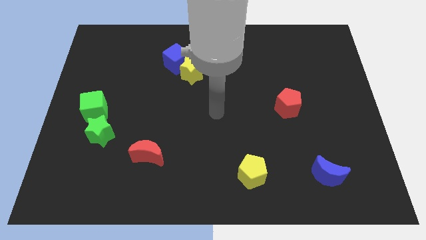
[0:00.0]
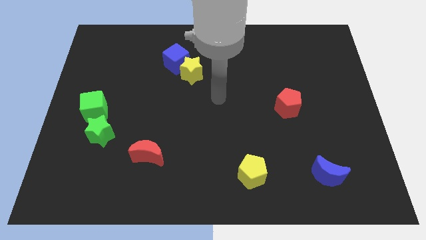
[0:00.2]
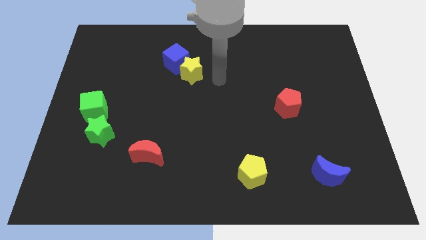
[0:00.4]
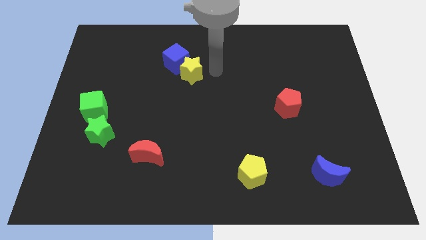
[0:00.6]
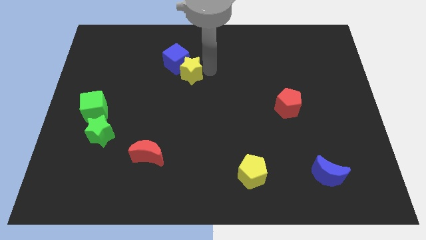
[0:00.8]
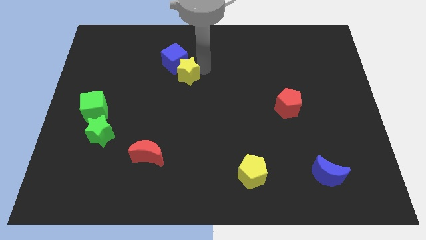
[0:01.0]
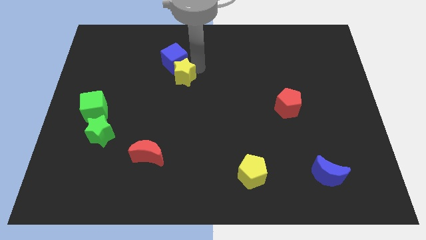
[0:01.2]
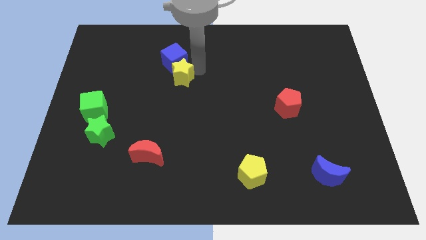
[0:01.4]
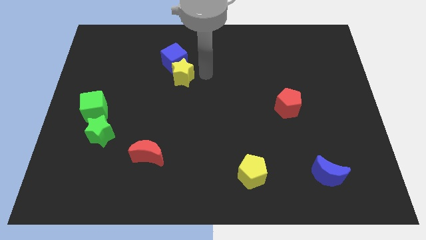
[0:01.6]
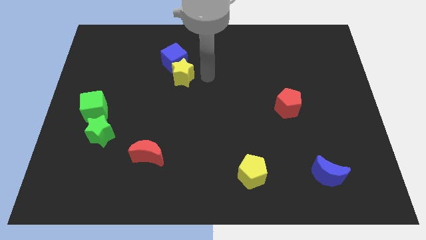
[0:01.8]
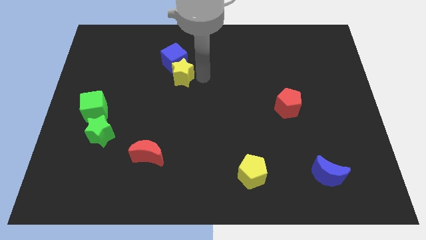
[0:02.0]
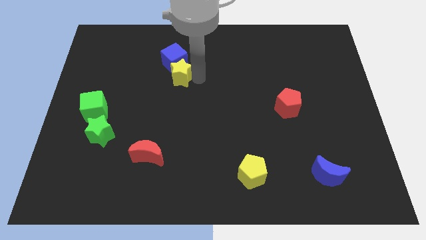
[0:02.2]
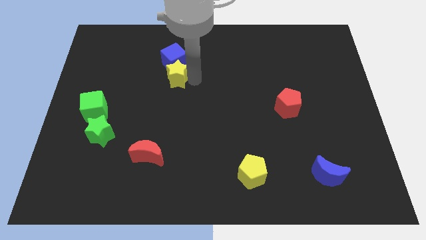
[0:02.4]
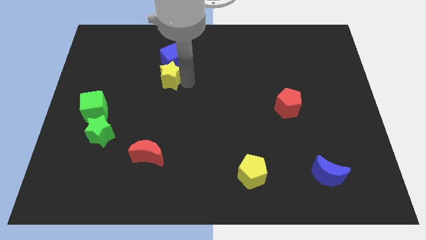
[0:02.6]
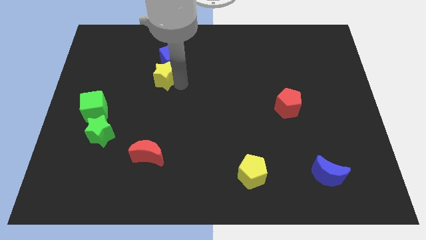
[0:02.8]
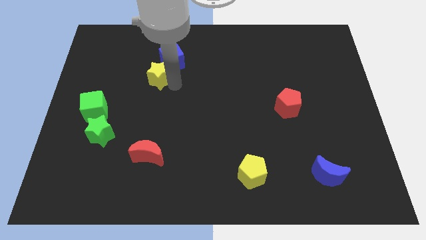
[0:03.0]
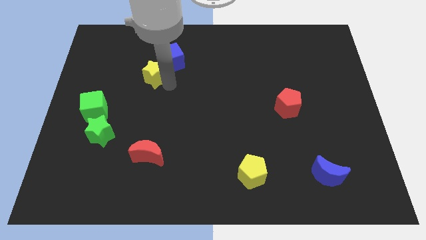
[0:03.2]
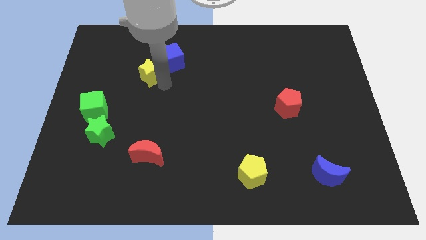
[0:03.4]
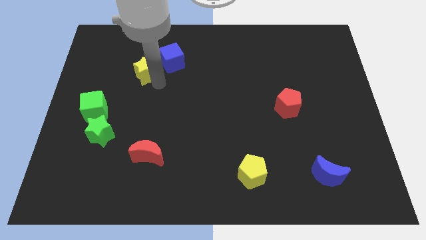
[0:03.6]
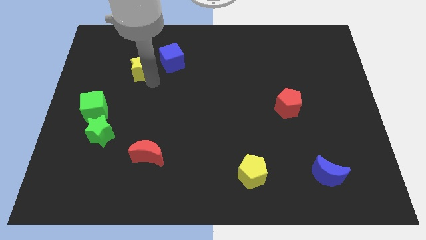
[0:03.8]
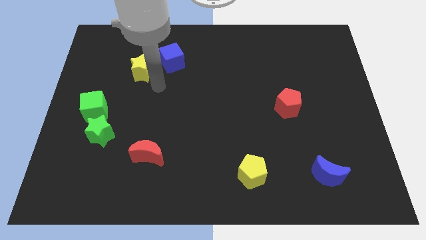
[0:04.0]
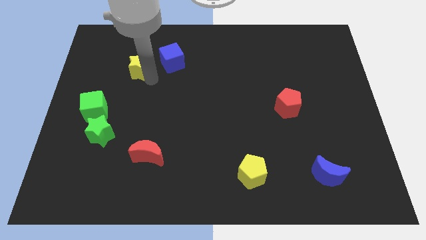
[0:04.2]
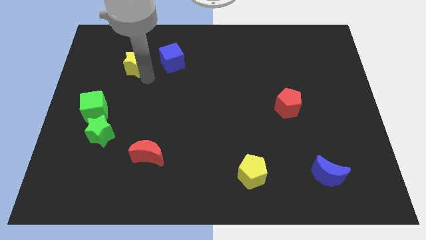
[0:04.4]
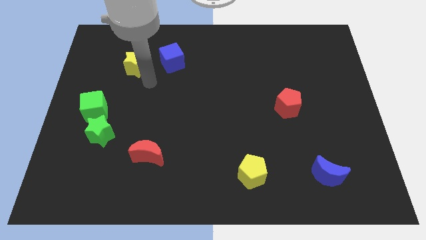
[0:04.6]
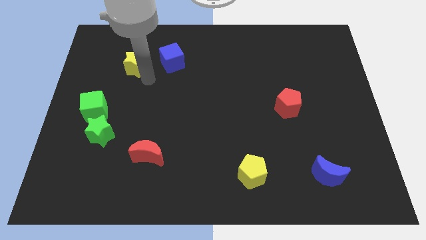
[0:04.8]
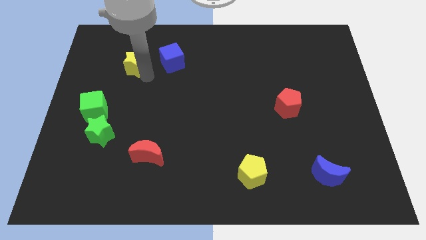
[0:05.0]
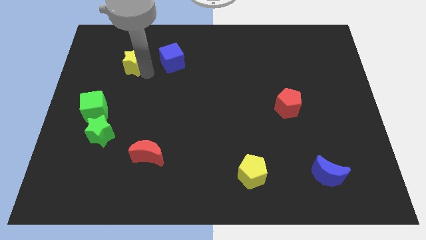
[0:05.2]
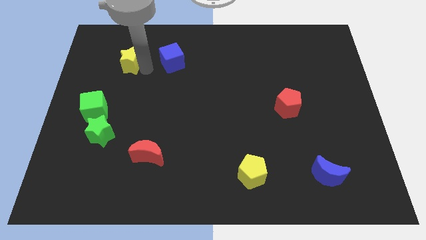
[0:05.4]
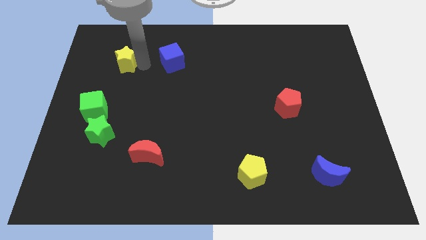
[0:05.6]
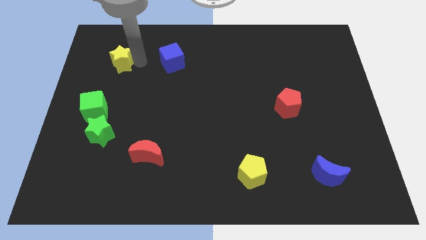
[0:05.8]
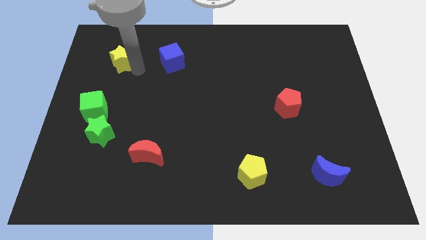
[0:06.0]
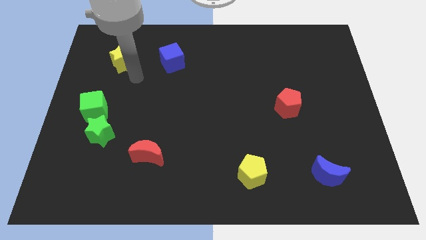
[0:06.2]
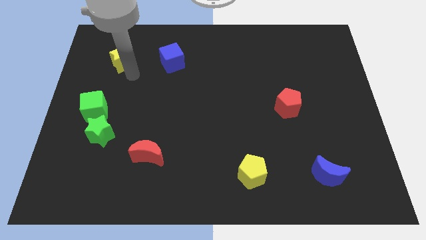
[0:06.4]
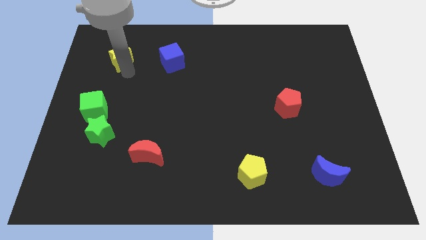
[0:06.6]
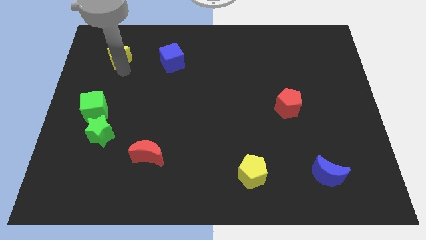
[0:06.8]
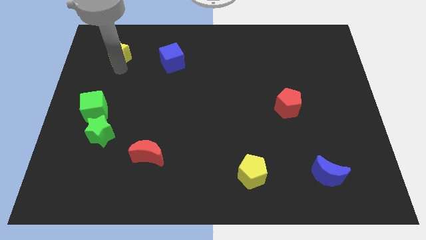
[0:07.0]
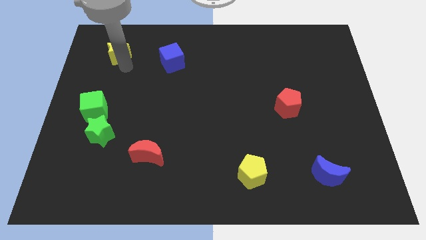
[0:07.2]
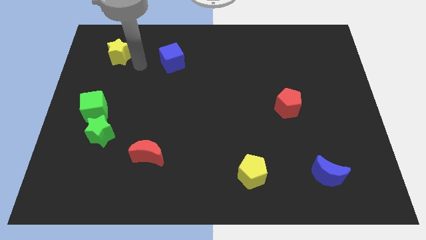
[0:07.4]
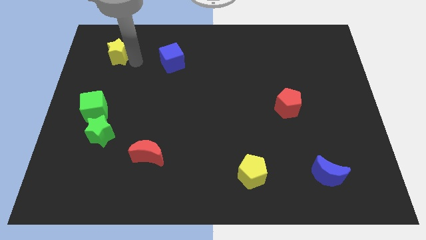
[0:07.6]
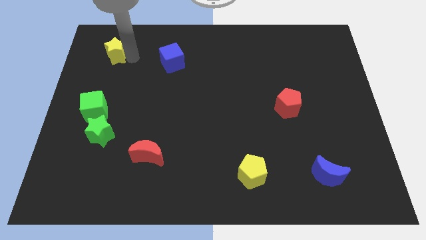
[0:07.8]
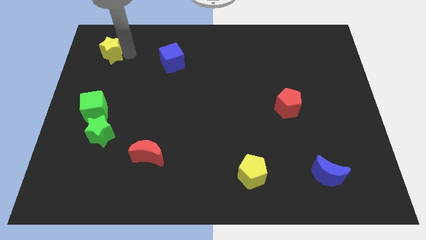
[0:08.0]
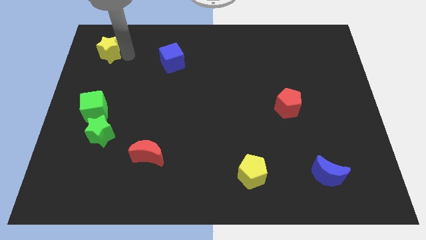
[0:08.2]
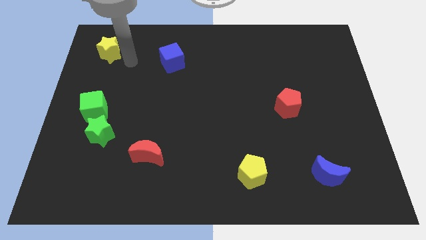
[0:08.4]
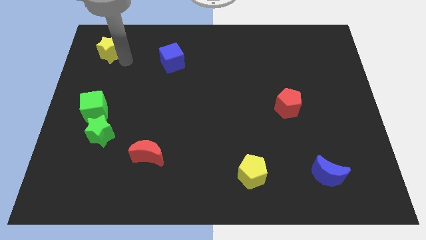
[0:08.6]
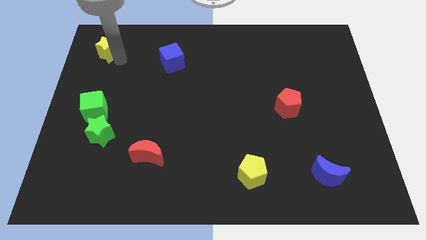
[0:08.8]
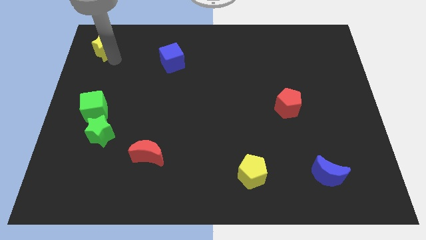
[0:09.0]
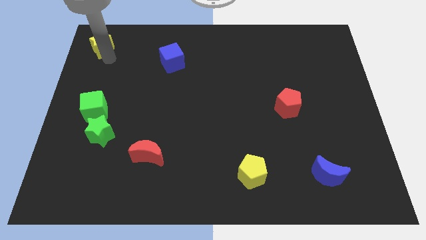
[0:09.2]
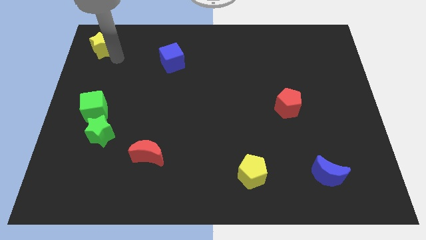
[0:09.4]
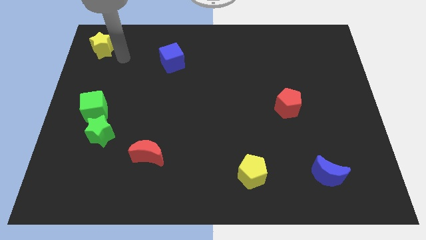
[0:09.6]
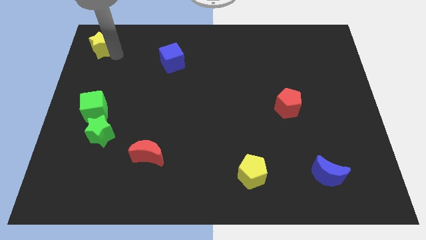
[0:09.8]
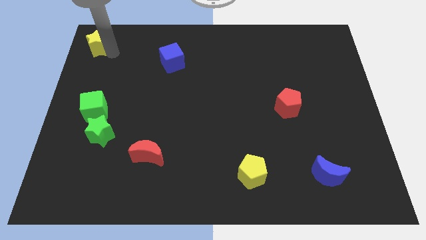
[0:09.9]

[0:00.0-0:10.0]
move the yellow star to the top left of the board
